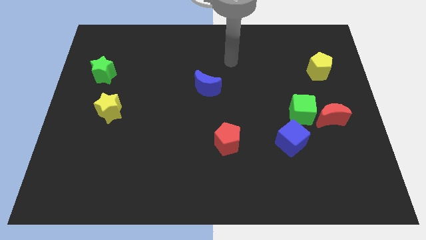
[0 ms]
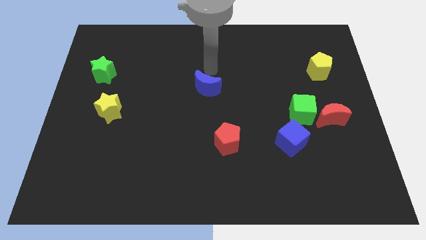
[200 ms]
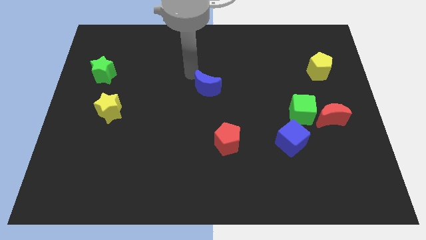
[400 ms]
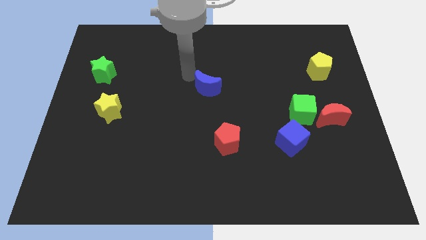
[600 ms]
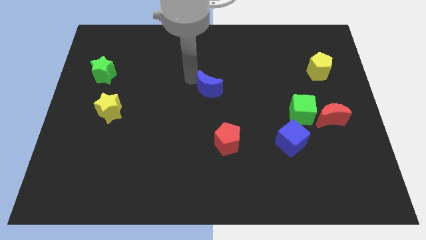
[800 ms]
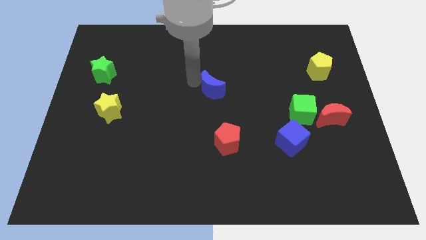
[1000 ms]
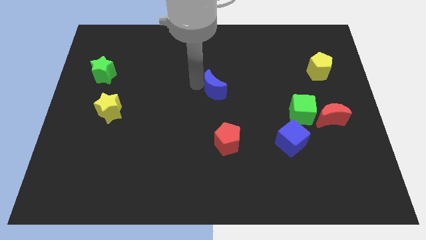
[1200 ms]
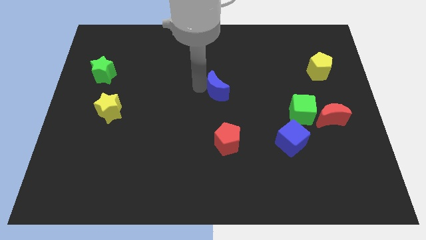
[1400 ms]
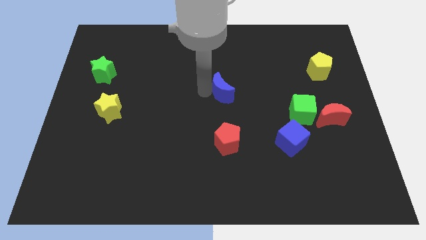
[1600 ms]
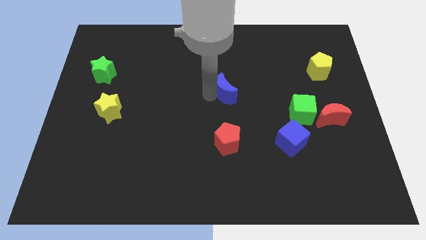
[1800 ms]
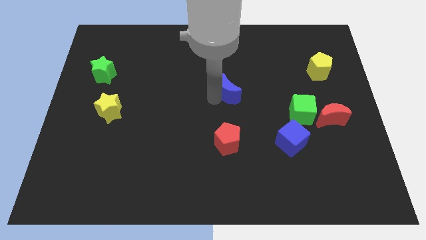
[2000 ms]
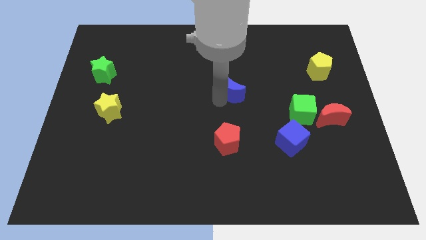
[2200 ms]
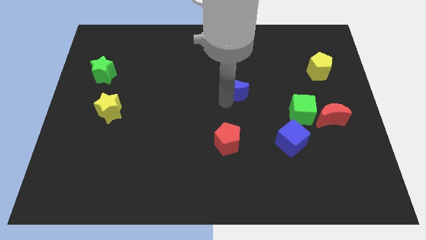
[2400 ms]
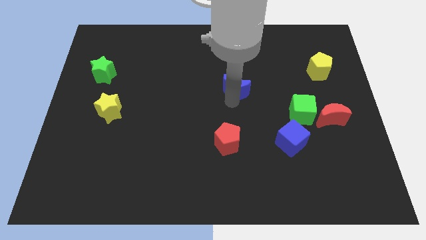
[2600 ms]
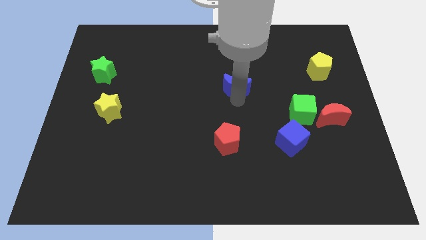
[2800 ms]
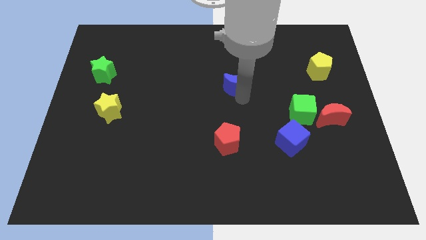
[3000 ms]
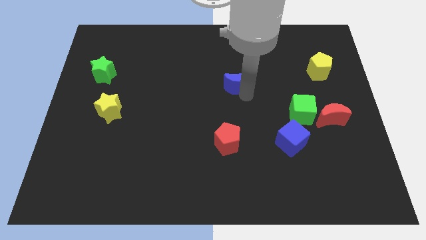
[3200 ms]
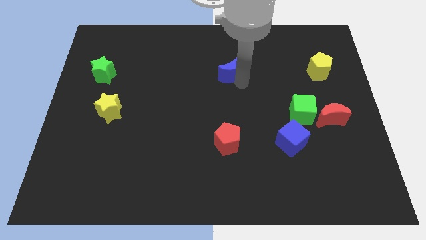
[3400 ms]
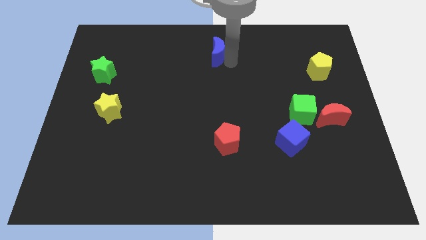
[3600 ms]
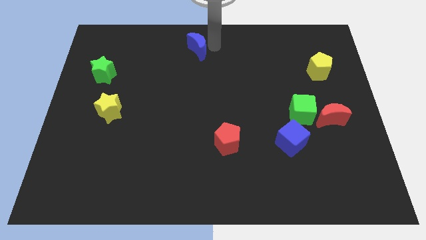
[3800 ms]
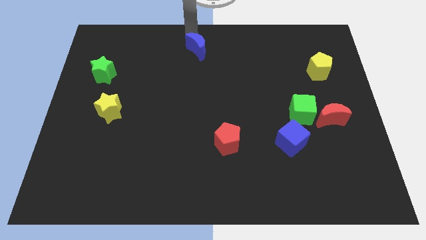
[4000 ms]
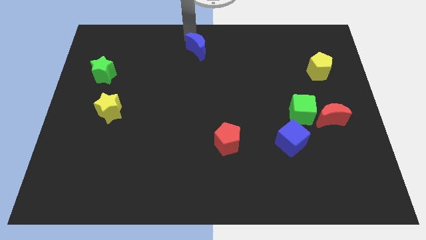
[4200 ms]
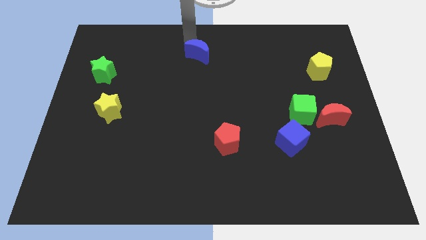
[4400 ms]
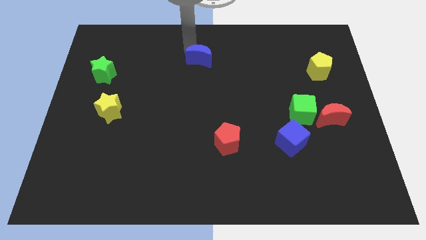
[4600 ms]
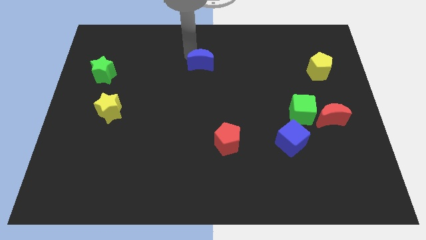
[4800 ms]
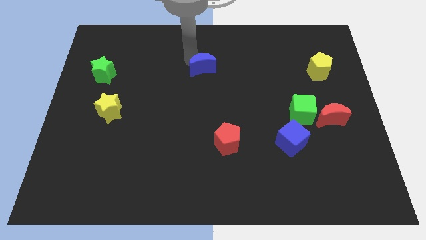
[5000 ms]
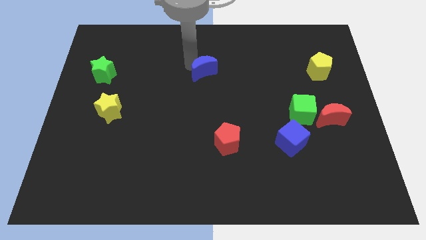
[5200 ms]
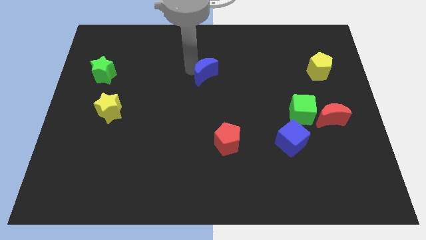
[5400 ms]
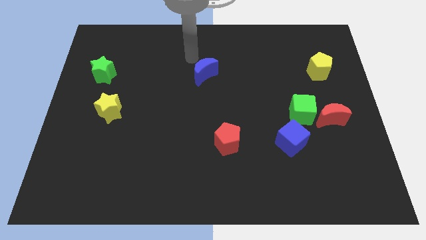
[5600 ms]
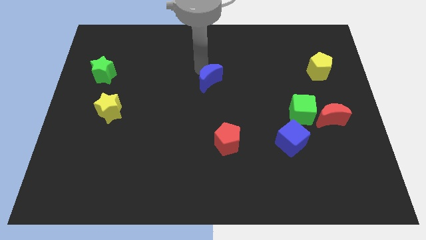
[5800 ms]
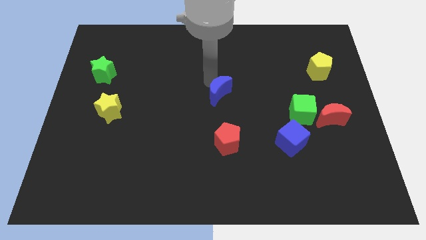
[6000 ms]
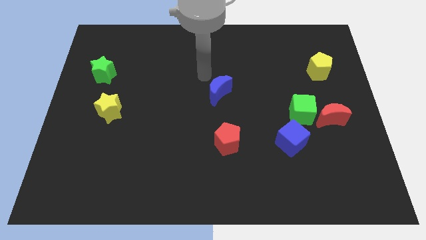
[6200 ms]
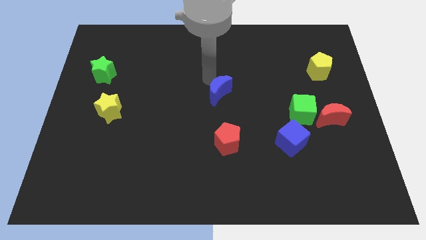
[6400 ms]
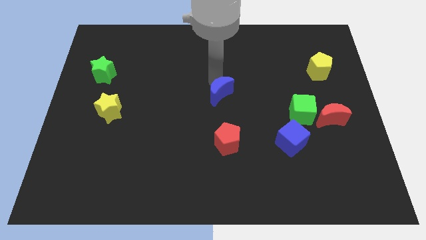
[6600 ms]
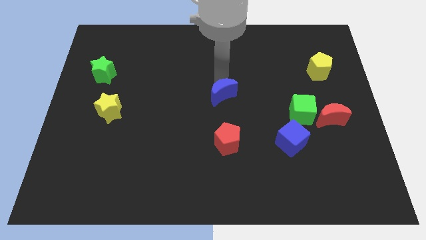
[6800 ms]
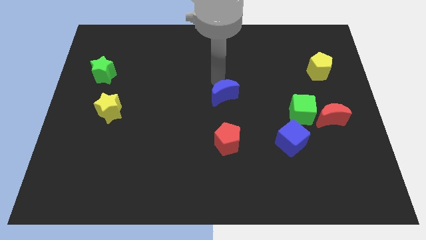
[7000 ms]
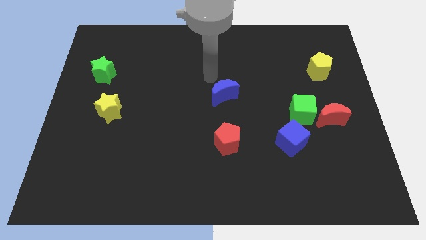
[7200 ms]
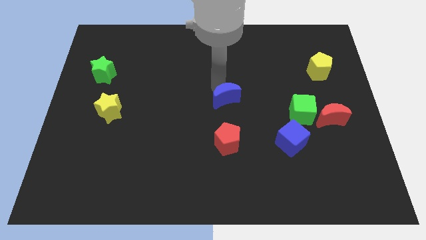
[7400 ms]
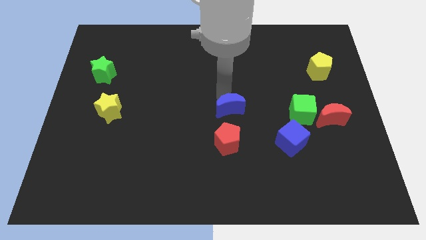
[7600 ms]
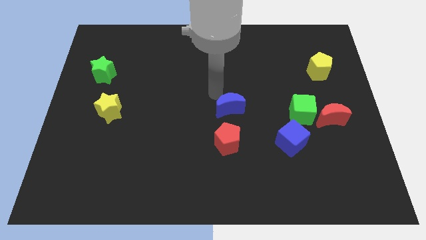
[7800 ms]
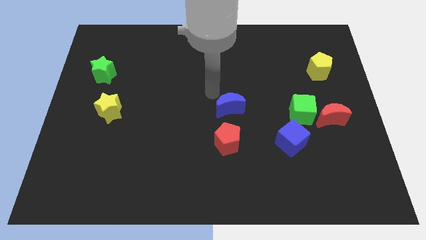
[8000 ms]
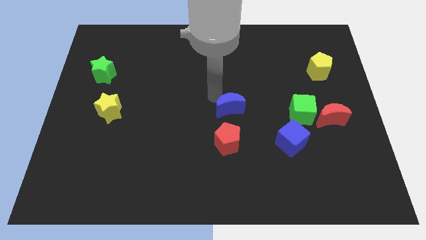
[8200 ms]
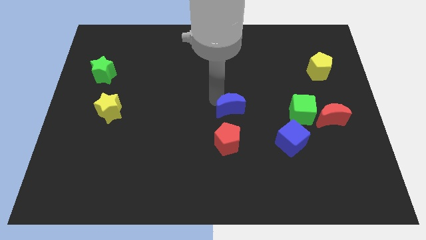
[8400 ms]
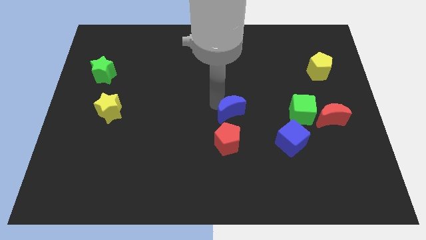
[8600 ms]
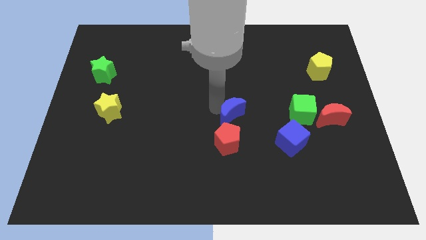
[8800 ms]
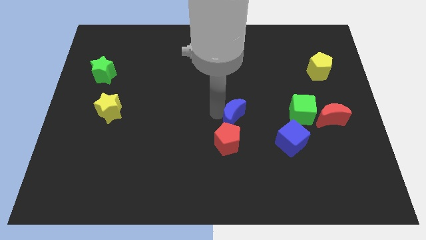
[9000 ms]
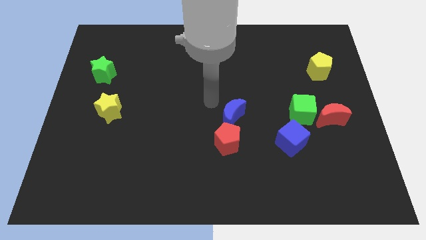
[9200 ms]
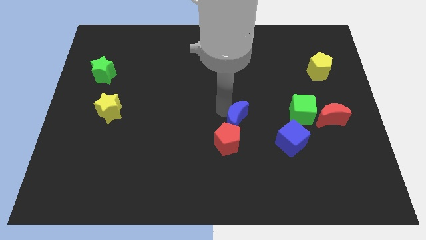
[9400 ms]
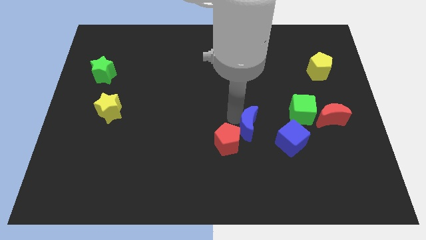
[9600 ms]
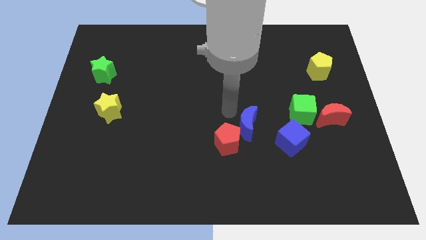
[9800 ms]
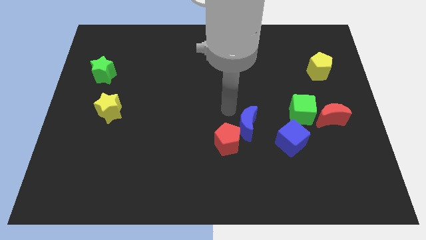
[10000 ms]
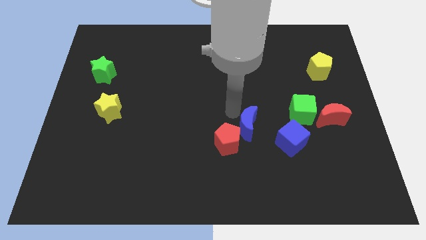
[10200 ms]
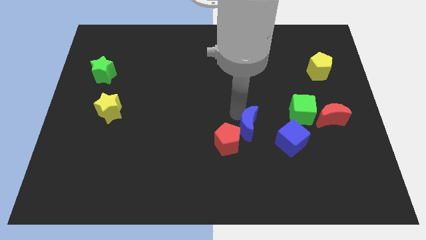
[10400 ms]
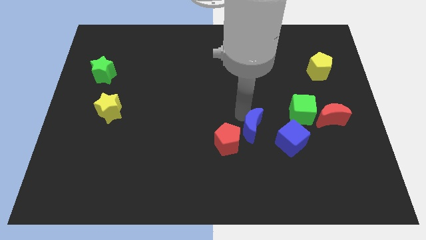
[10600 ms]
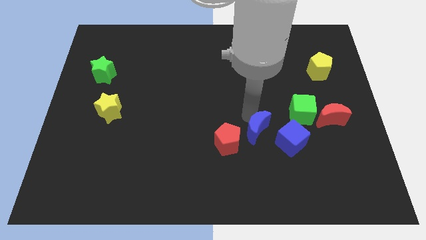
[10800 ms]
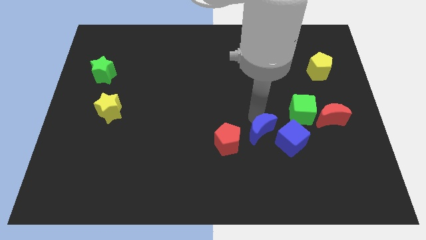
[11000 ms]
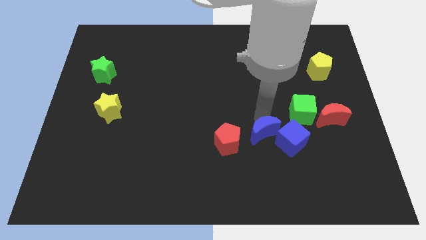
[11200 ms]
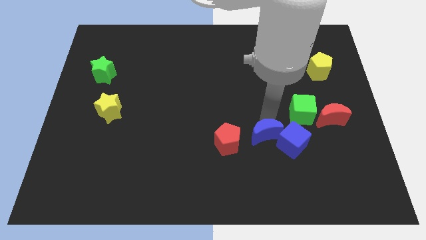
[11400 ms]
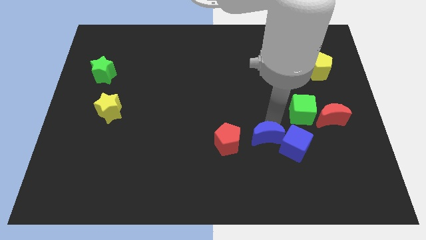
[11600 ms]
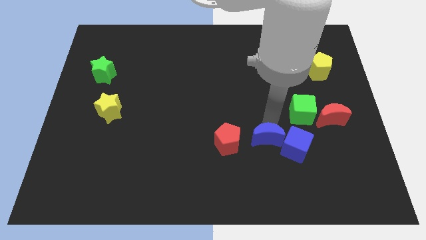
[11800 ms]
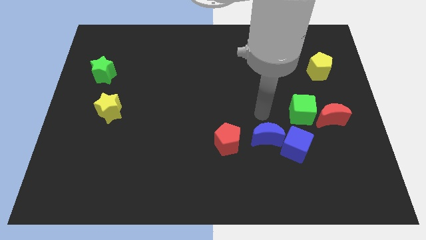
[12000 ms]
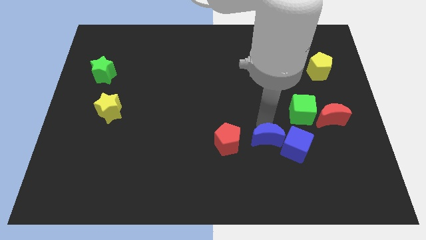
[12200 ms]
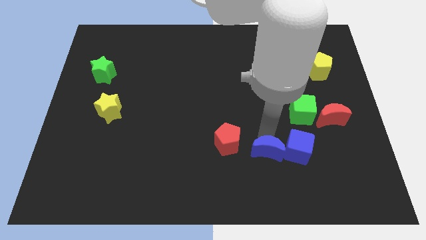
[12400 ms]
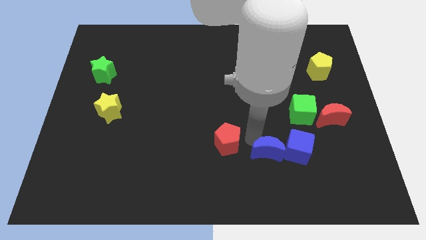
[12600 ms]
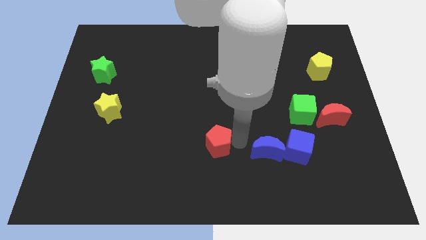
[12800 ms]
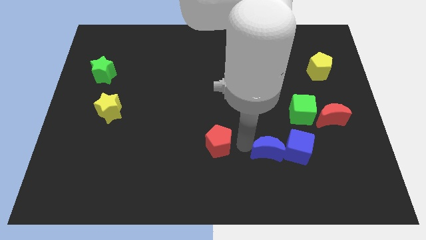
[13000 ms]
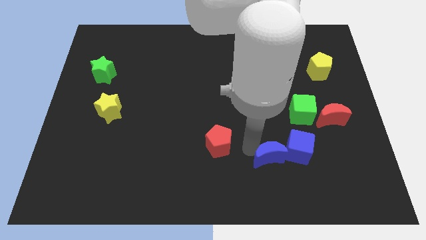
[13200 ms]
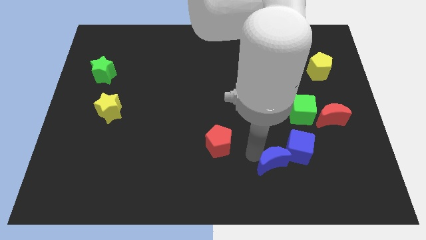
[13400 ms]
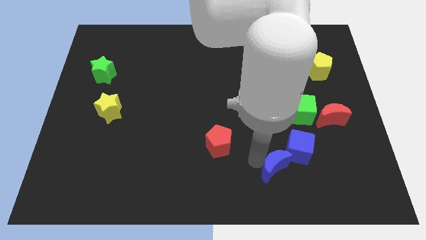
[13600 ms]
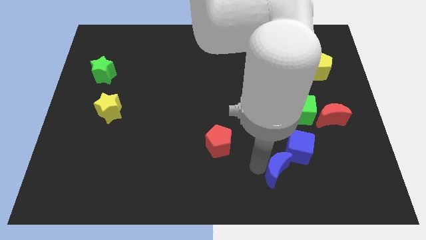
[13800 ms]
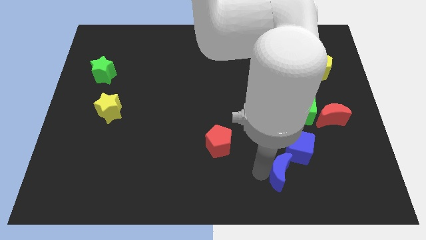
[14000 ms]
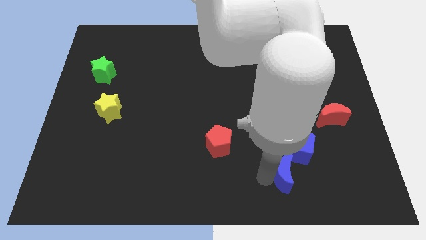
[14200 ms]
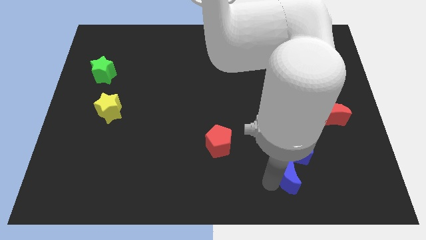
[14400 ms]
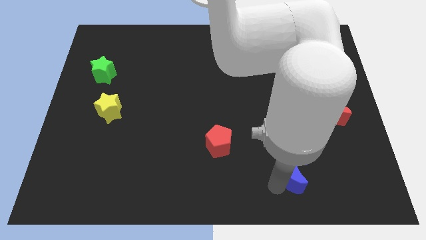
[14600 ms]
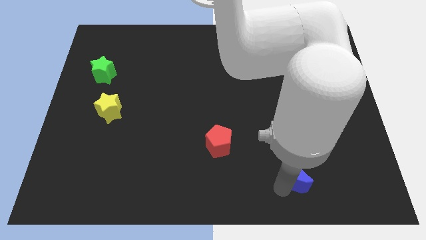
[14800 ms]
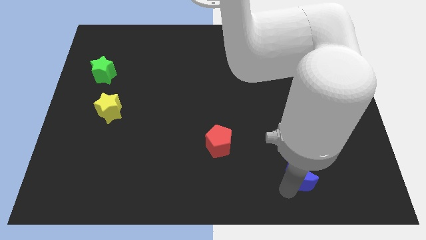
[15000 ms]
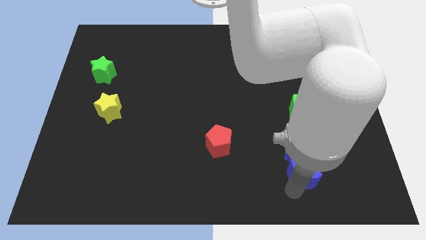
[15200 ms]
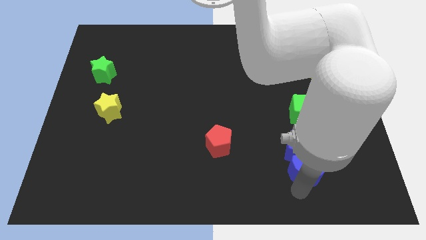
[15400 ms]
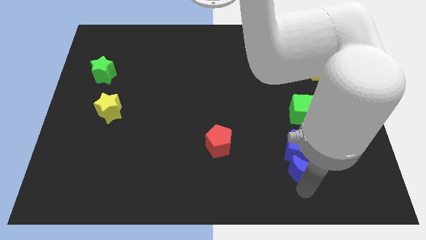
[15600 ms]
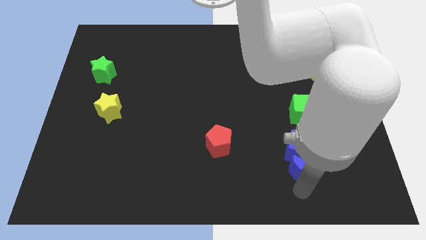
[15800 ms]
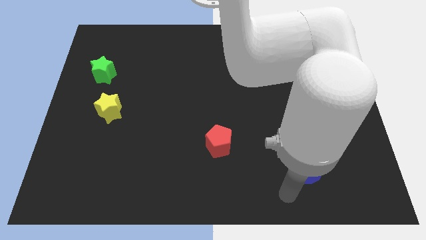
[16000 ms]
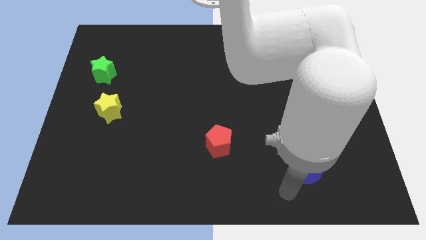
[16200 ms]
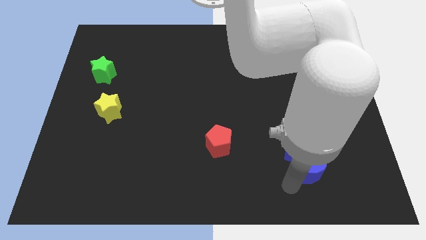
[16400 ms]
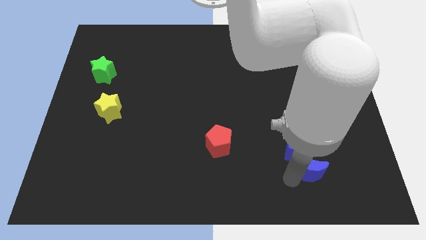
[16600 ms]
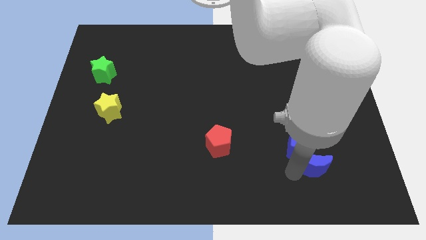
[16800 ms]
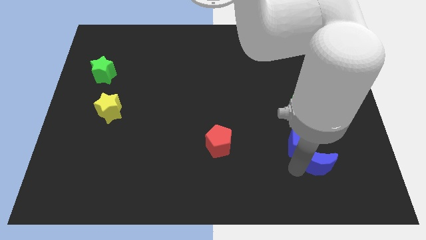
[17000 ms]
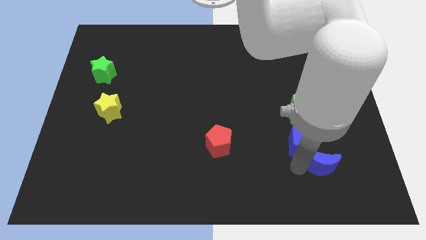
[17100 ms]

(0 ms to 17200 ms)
put the blue moon to the bottom side of the red moon
